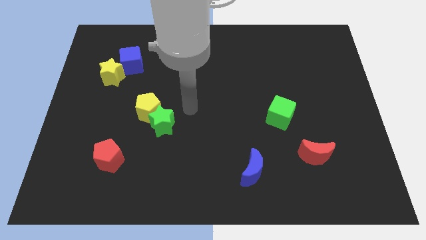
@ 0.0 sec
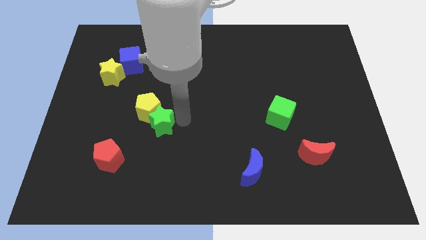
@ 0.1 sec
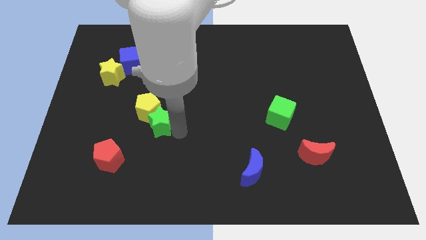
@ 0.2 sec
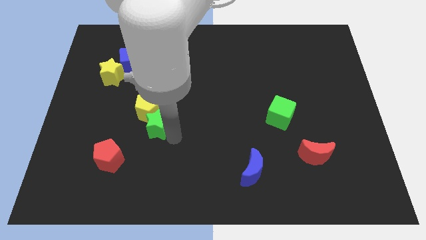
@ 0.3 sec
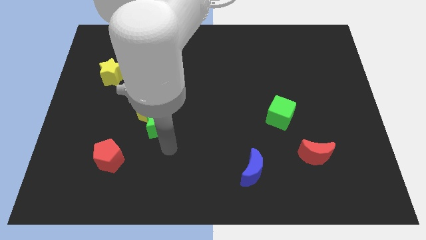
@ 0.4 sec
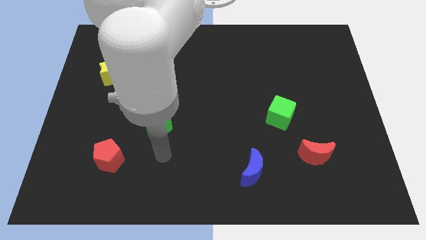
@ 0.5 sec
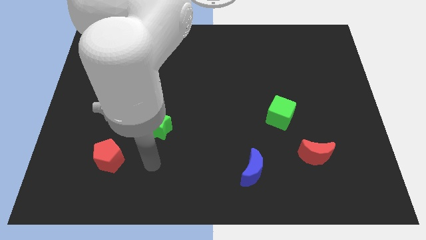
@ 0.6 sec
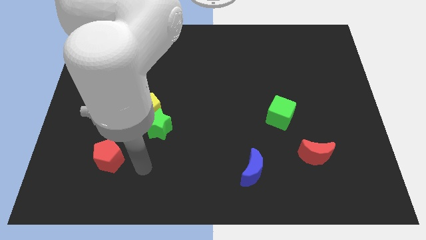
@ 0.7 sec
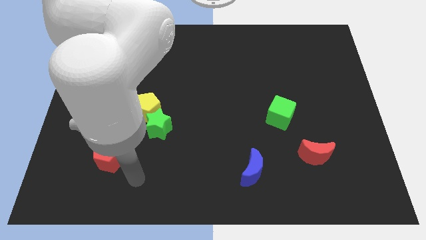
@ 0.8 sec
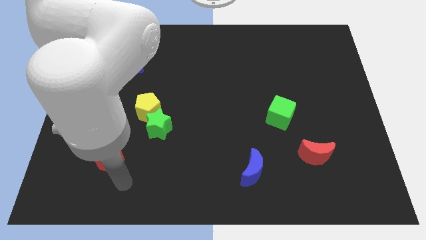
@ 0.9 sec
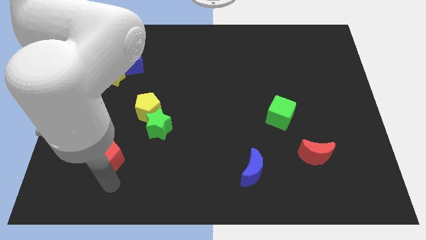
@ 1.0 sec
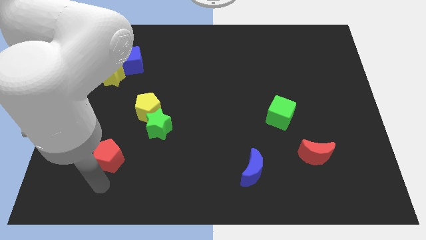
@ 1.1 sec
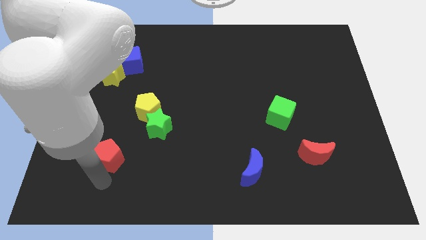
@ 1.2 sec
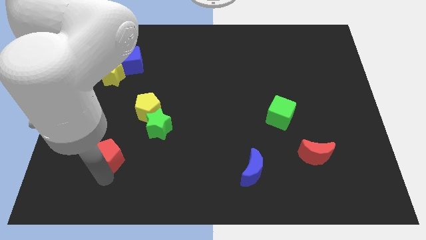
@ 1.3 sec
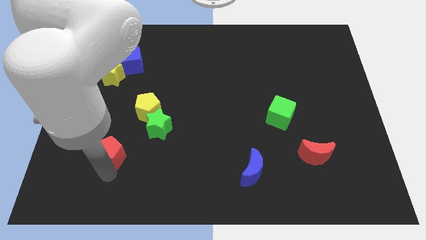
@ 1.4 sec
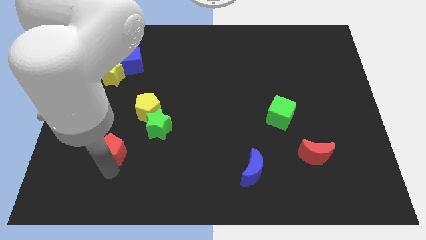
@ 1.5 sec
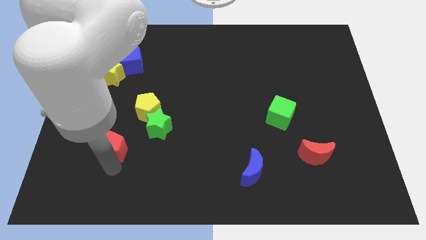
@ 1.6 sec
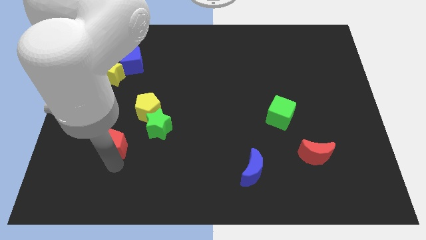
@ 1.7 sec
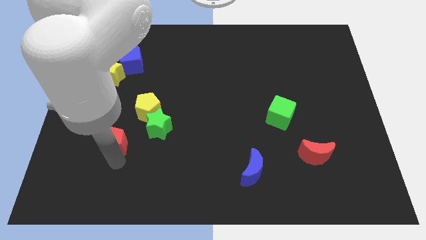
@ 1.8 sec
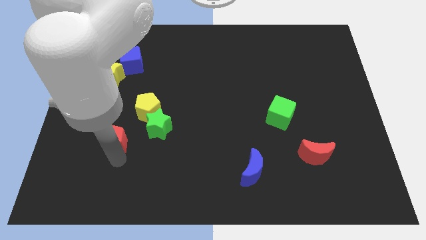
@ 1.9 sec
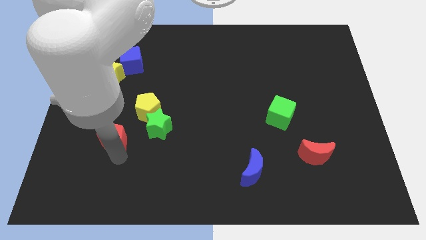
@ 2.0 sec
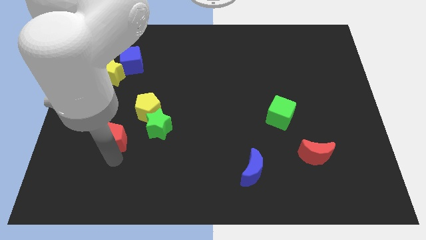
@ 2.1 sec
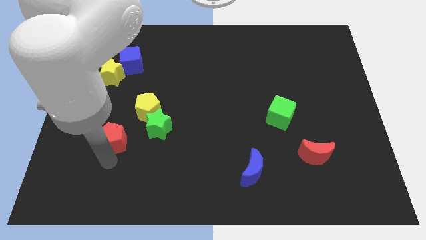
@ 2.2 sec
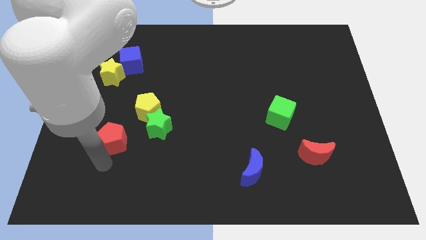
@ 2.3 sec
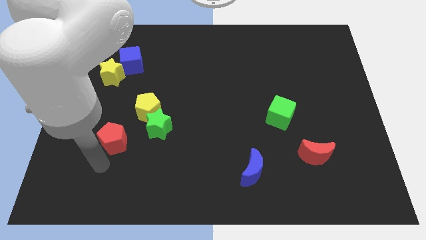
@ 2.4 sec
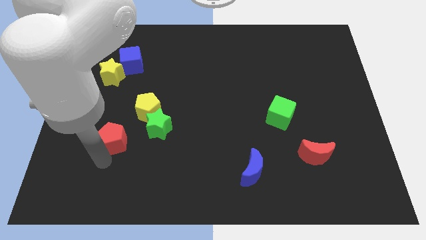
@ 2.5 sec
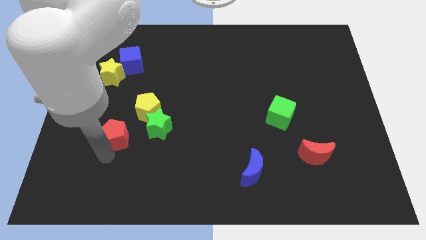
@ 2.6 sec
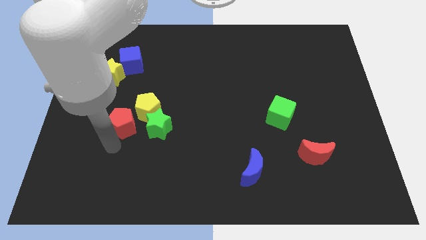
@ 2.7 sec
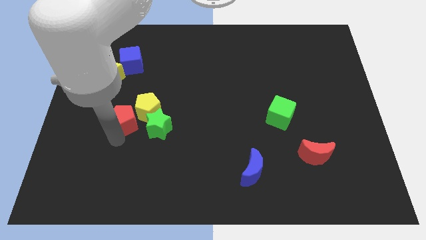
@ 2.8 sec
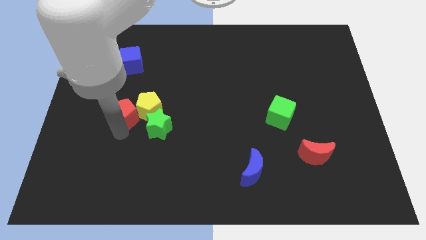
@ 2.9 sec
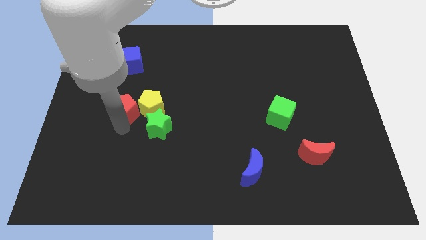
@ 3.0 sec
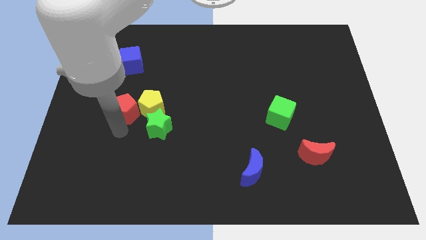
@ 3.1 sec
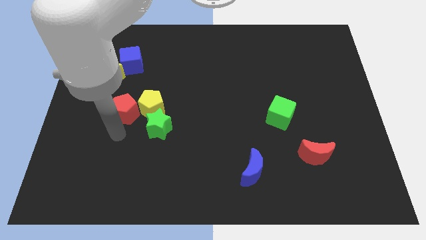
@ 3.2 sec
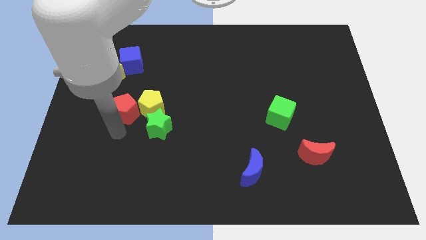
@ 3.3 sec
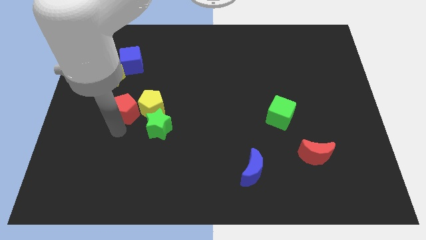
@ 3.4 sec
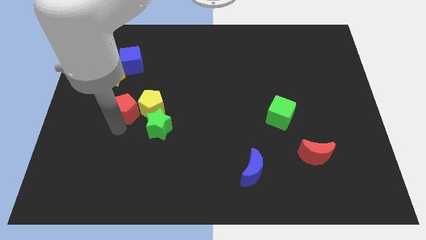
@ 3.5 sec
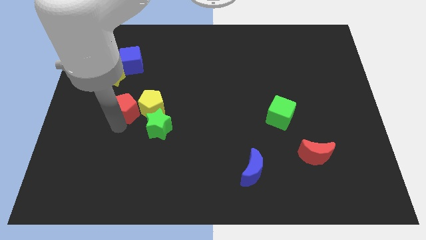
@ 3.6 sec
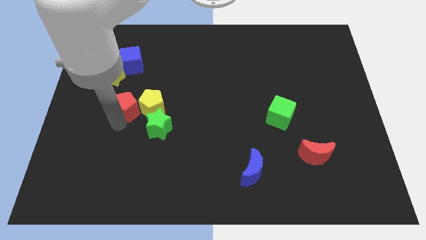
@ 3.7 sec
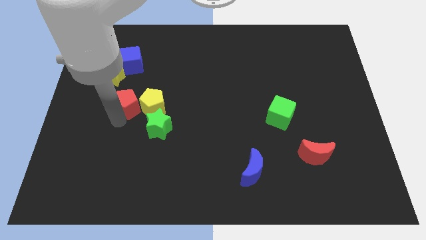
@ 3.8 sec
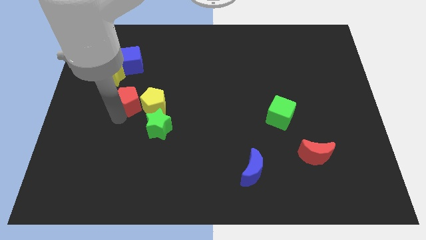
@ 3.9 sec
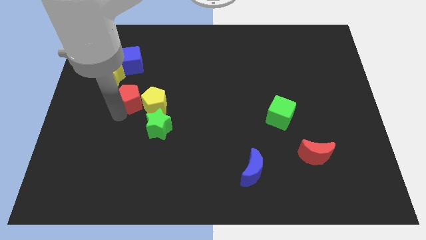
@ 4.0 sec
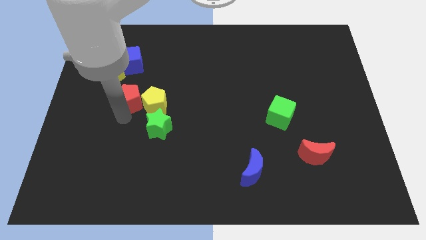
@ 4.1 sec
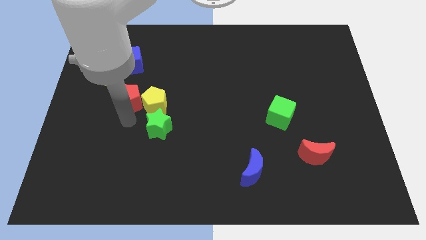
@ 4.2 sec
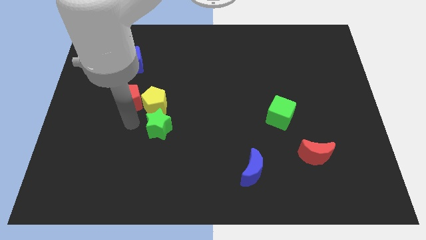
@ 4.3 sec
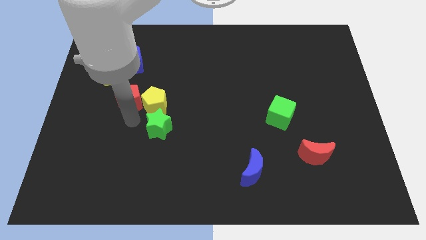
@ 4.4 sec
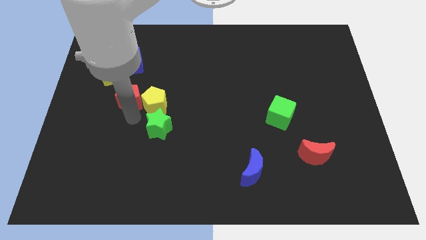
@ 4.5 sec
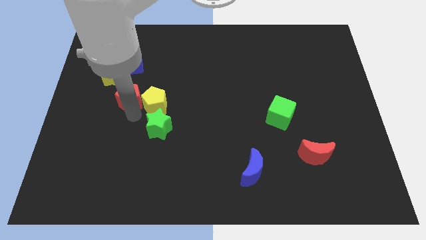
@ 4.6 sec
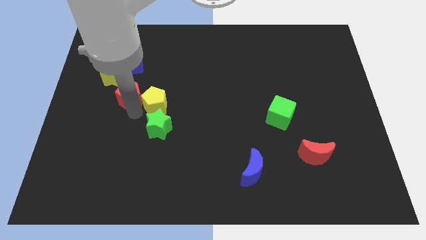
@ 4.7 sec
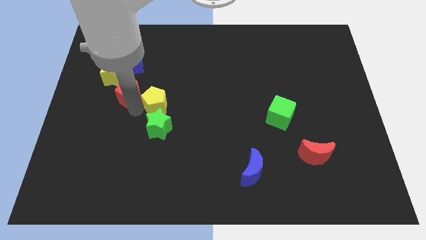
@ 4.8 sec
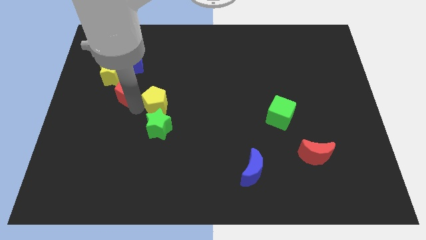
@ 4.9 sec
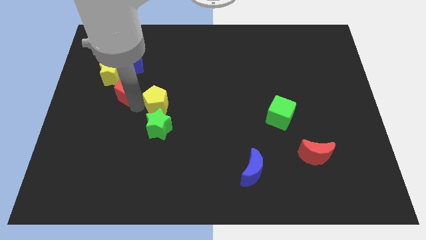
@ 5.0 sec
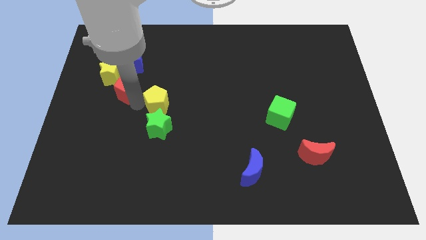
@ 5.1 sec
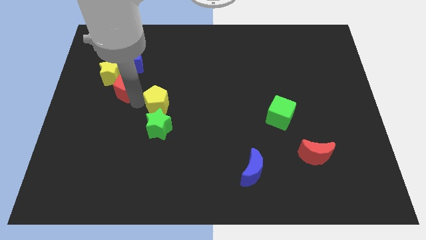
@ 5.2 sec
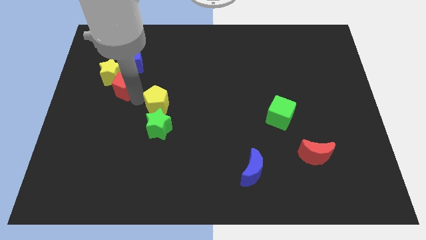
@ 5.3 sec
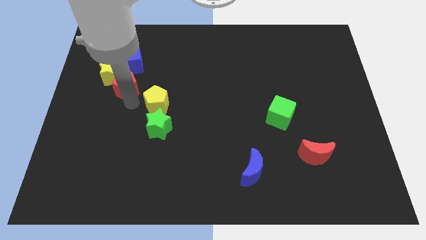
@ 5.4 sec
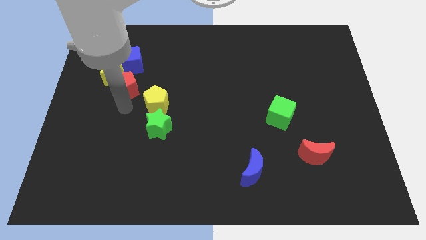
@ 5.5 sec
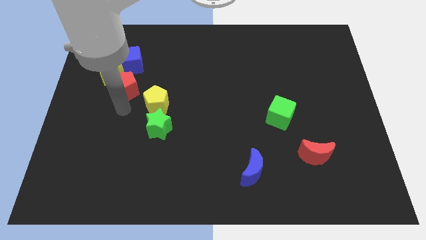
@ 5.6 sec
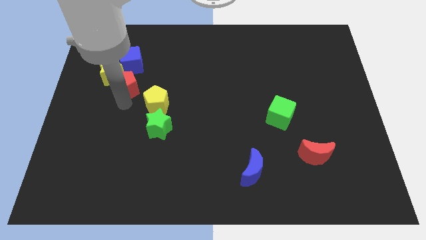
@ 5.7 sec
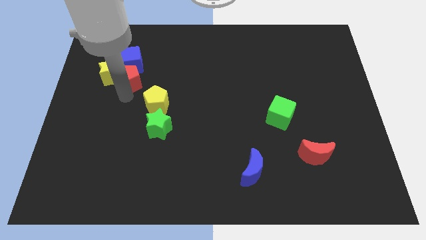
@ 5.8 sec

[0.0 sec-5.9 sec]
move the red pentagon close to the blue cube
